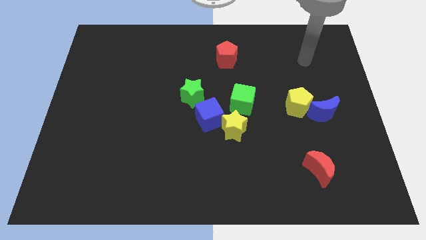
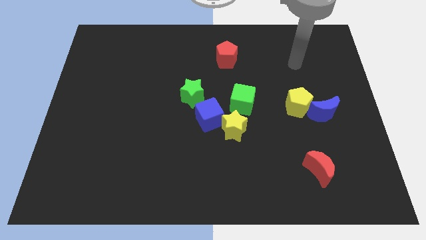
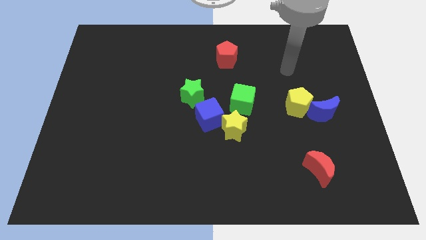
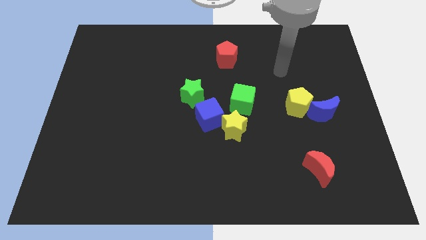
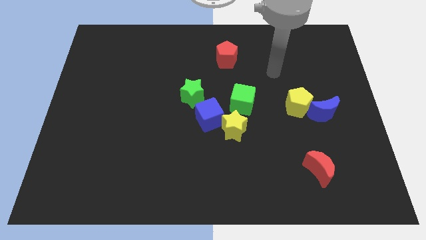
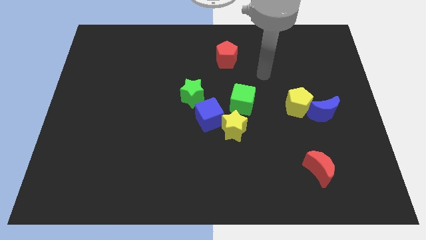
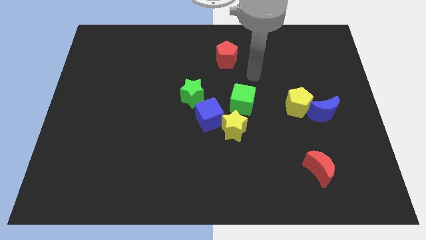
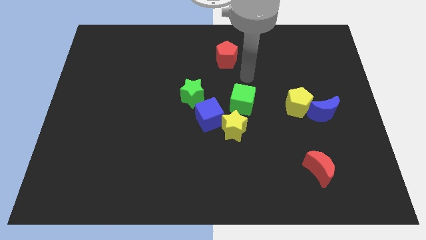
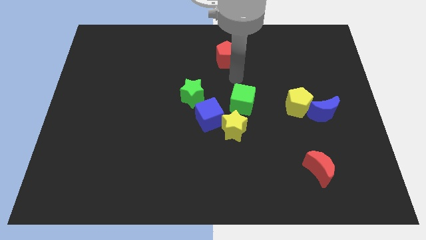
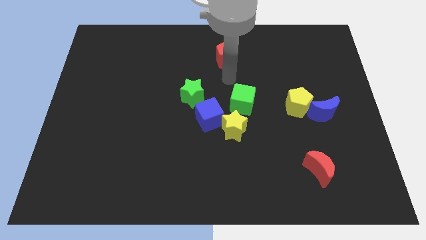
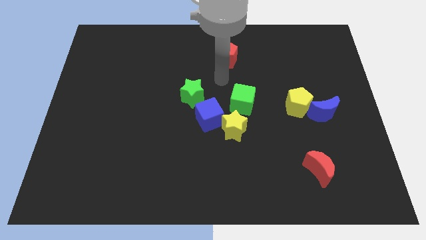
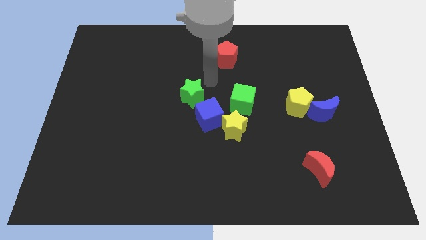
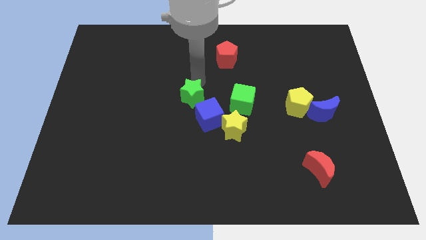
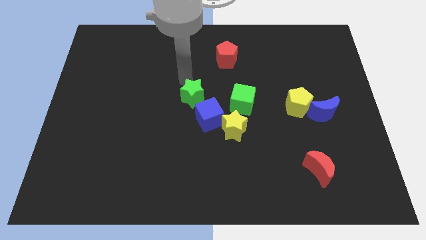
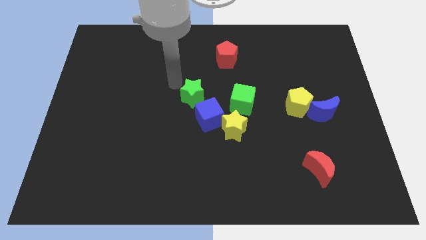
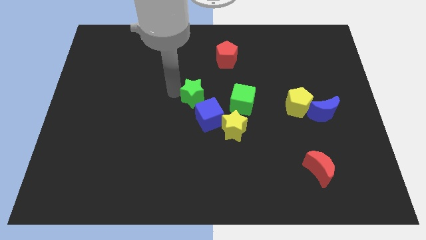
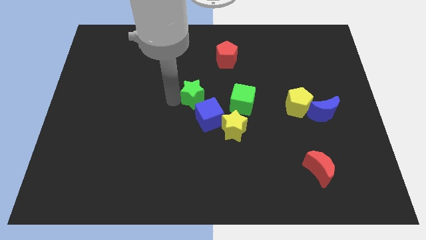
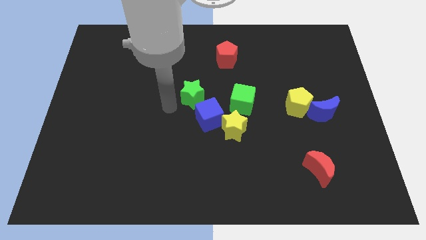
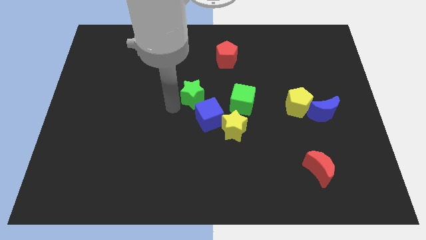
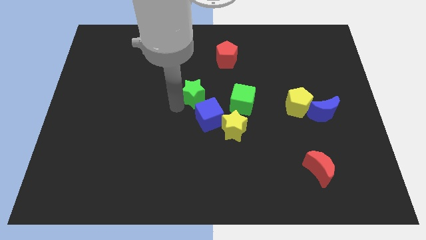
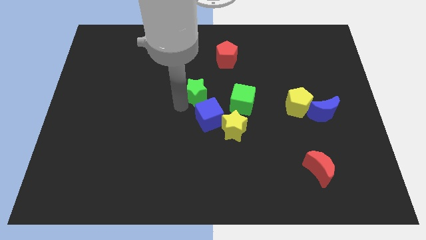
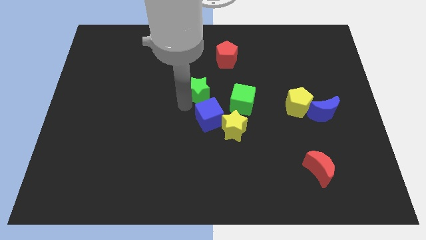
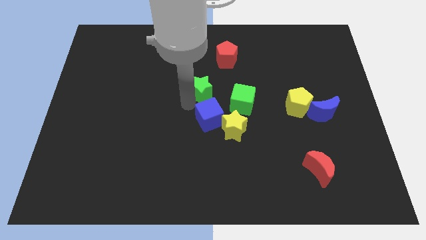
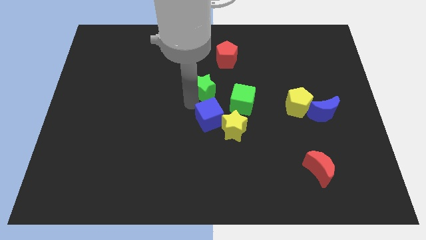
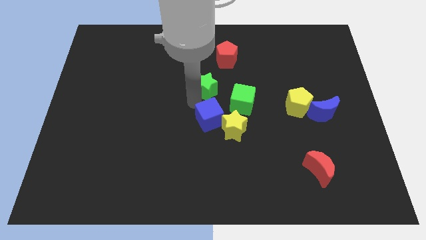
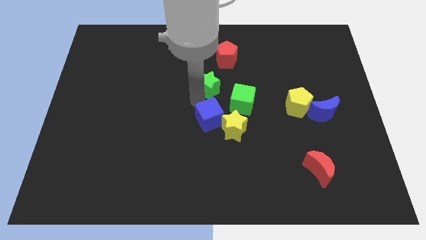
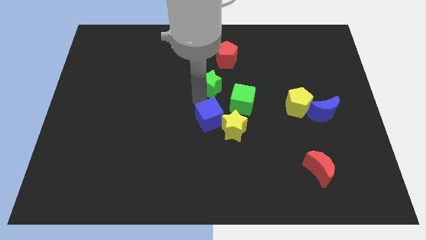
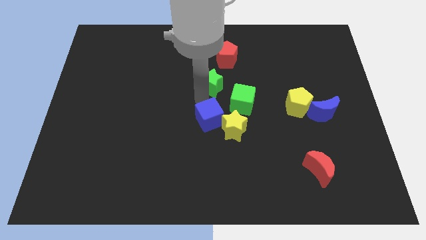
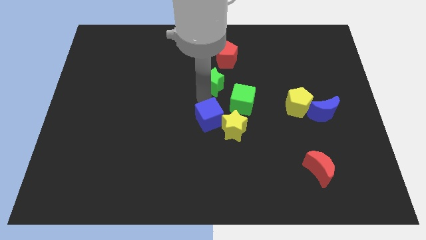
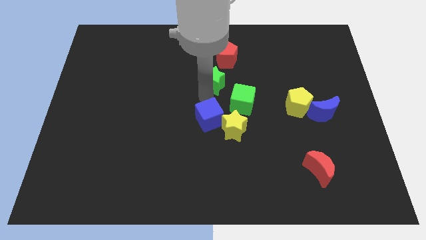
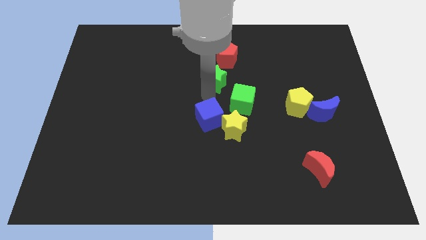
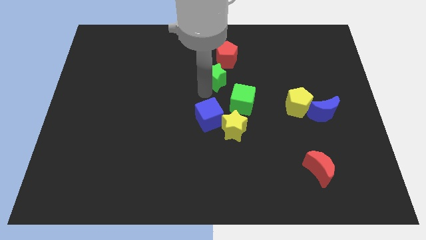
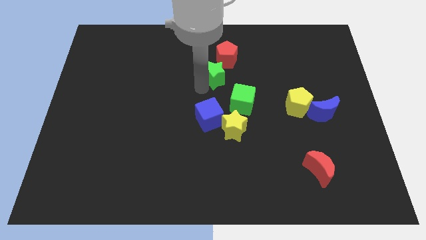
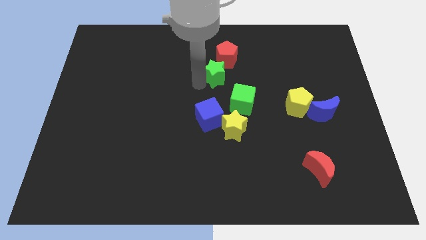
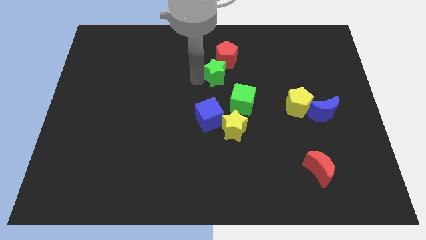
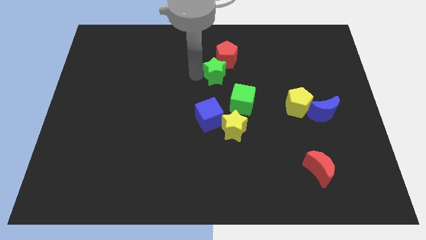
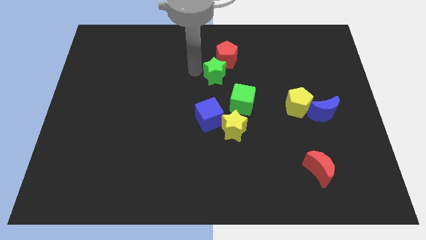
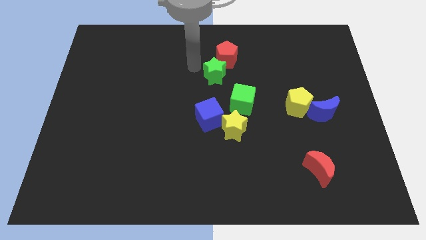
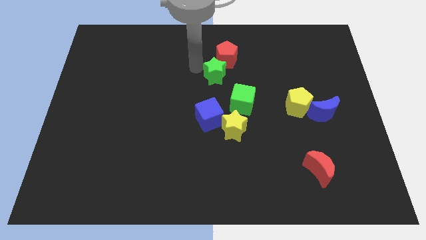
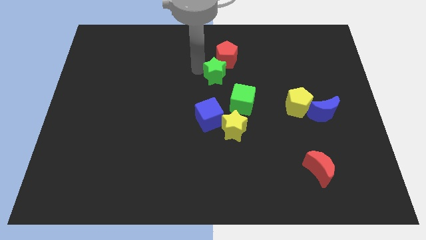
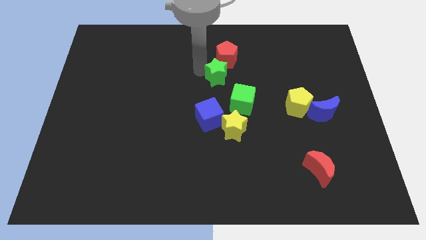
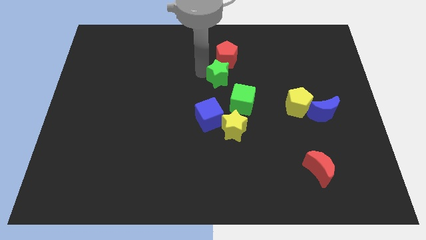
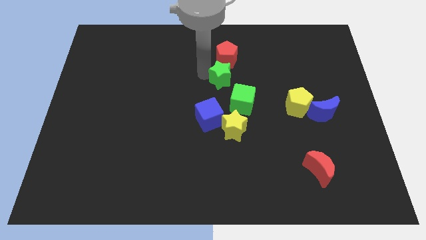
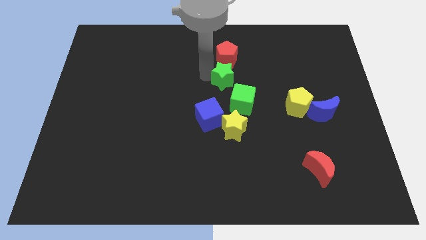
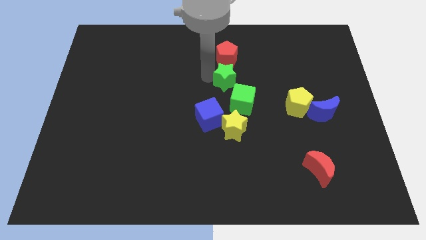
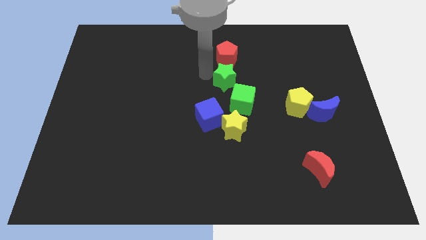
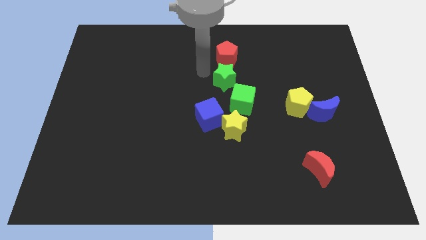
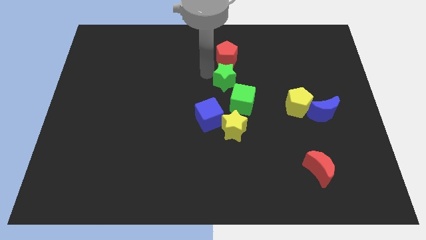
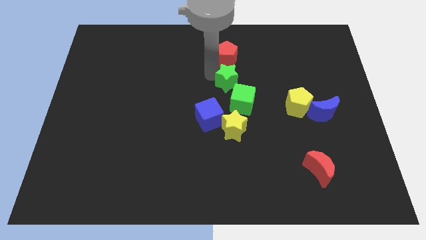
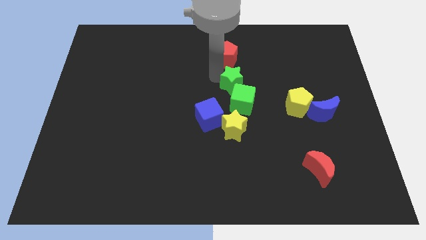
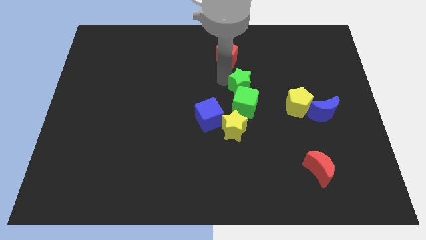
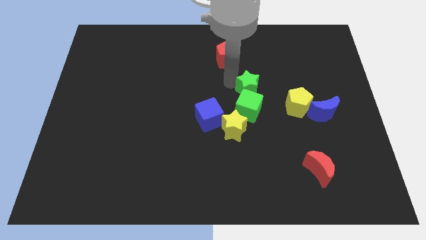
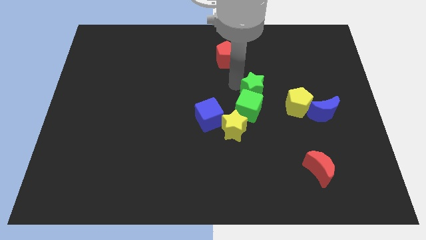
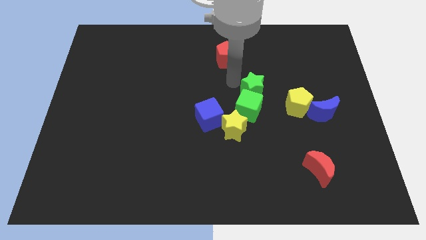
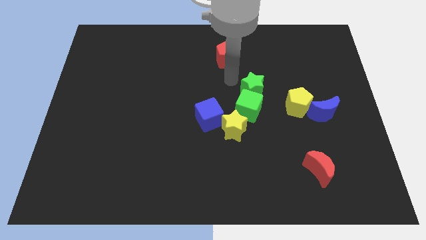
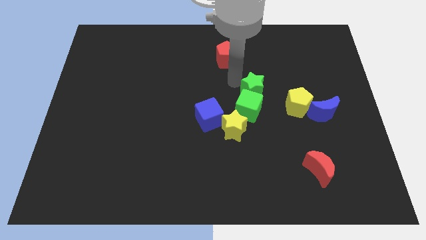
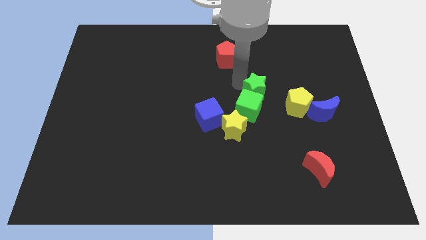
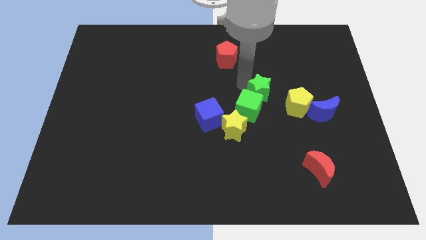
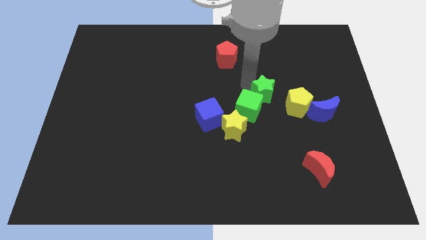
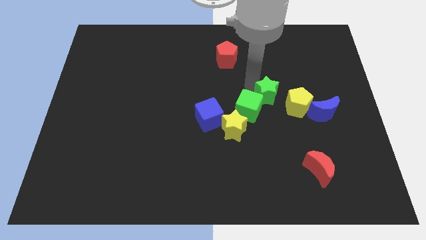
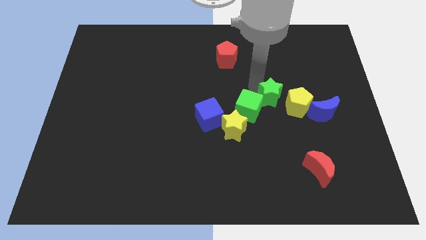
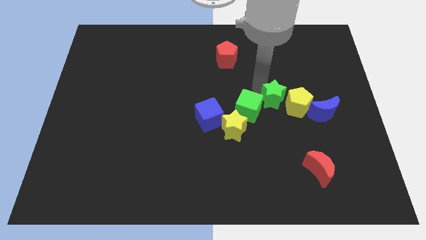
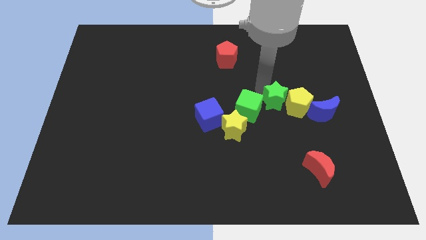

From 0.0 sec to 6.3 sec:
slide the green star diagonally down and to the left of the yellow pentagon
